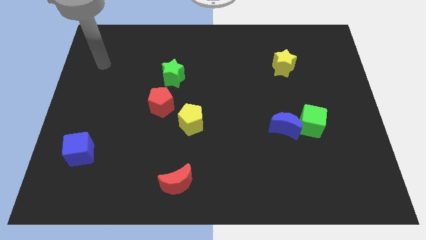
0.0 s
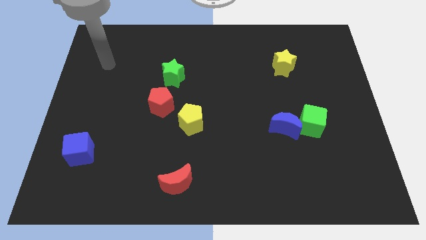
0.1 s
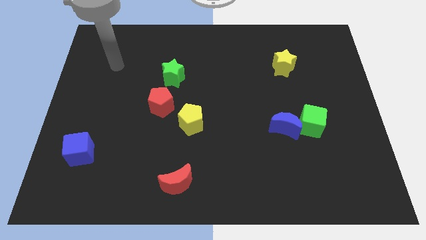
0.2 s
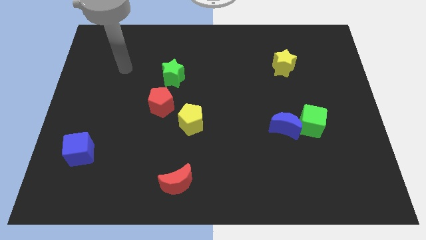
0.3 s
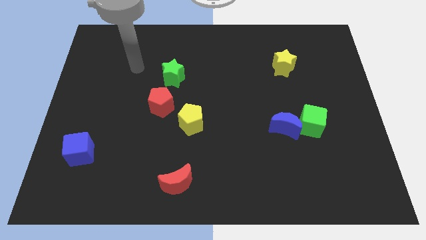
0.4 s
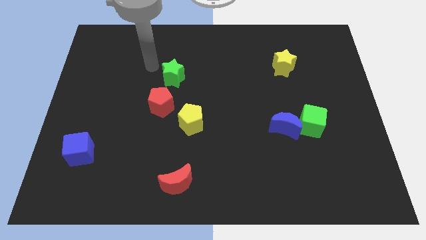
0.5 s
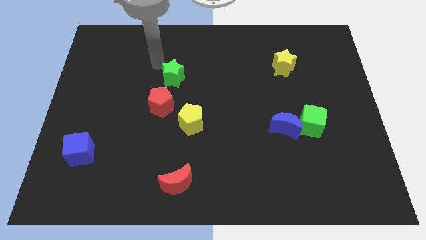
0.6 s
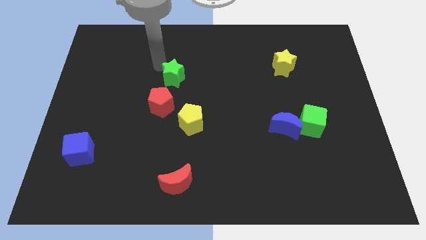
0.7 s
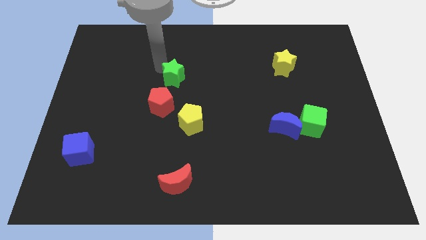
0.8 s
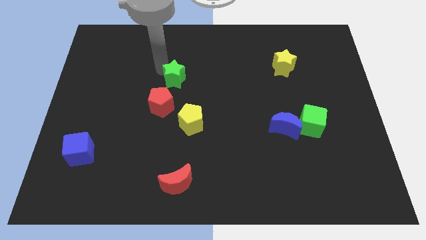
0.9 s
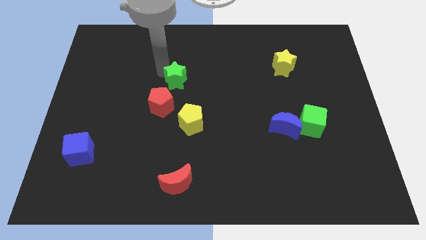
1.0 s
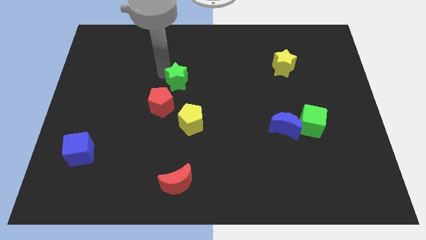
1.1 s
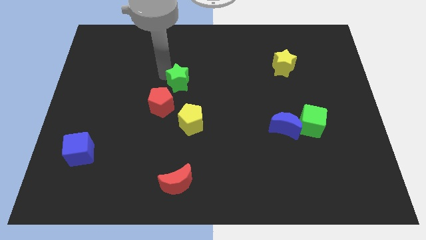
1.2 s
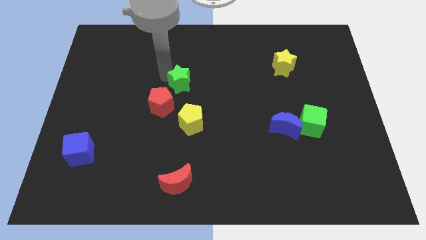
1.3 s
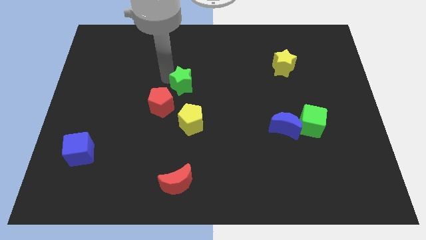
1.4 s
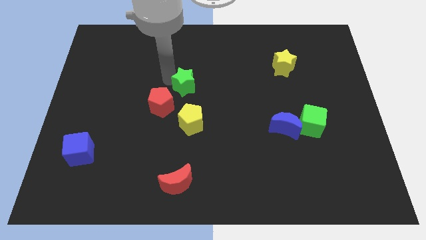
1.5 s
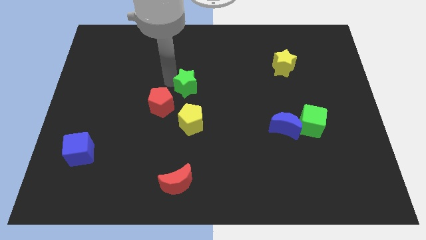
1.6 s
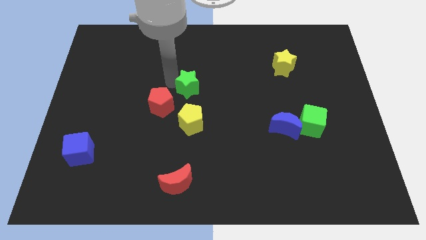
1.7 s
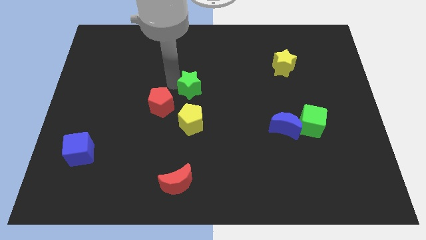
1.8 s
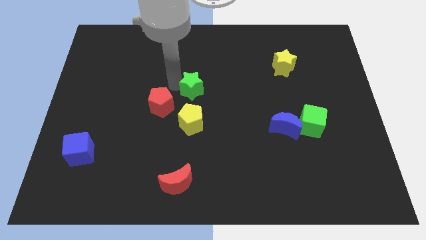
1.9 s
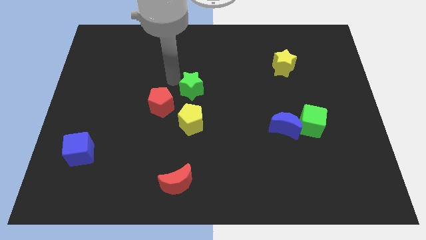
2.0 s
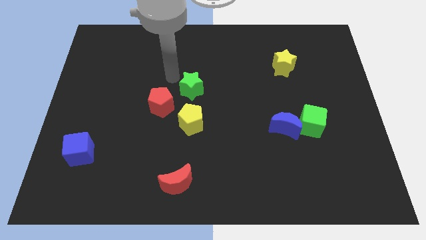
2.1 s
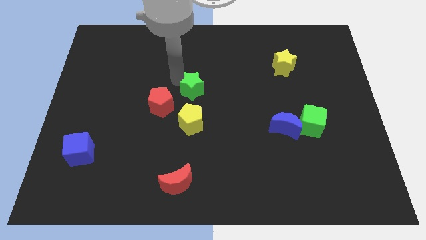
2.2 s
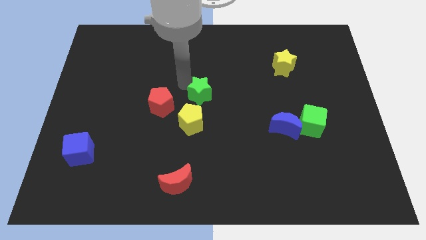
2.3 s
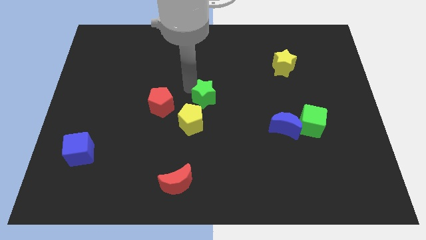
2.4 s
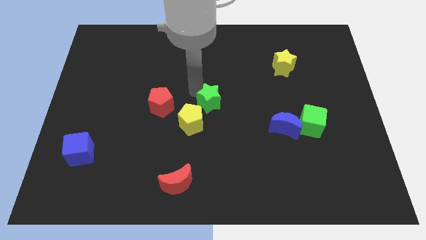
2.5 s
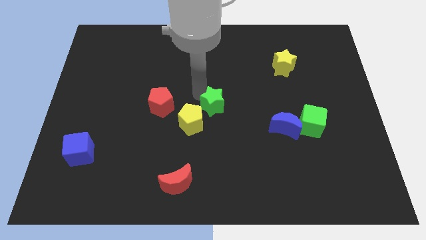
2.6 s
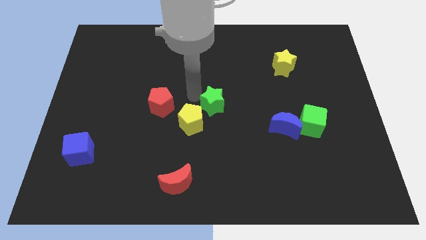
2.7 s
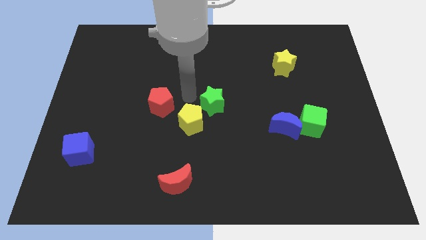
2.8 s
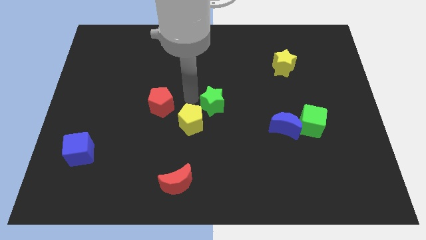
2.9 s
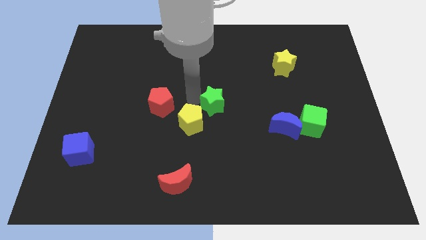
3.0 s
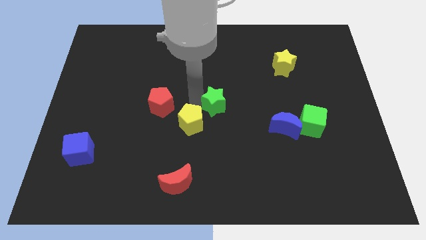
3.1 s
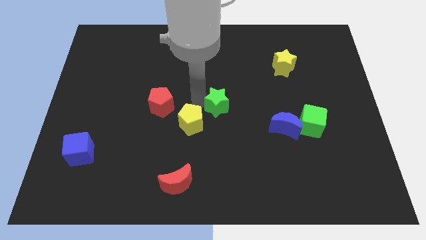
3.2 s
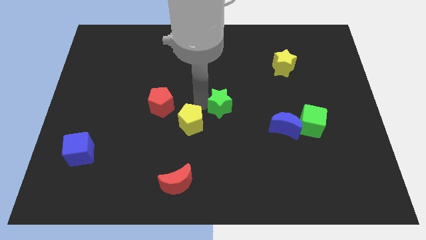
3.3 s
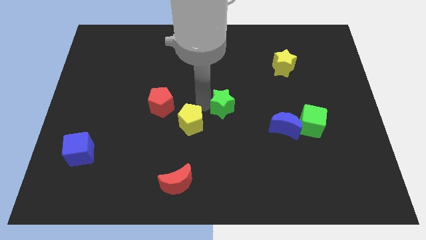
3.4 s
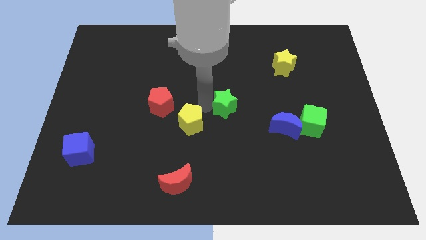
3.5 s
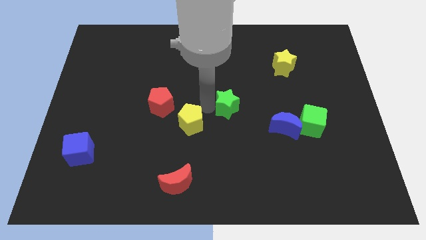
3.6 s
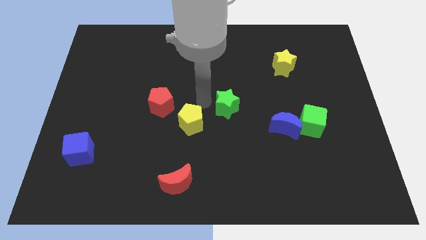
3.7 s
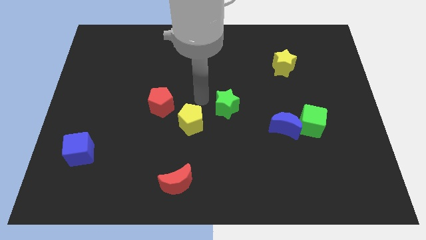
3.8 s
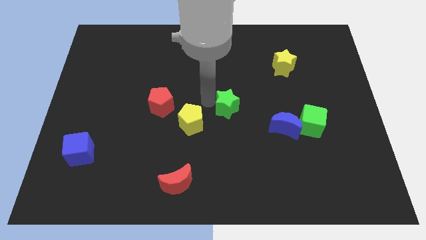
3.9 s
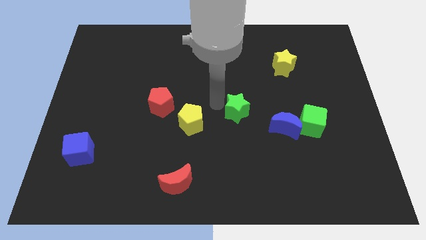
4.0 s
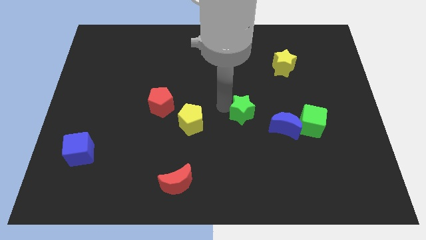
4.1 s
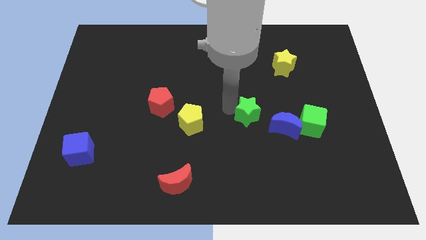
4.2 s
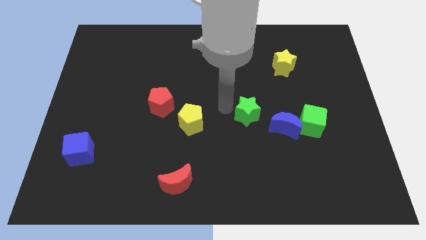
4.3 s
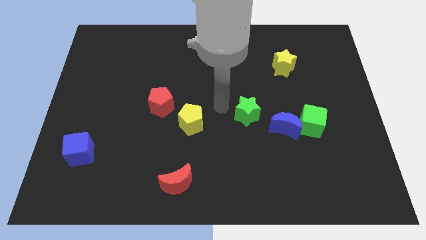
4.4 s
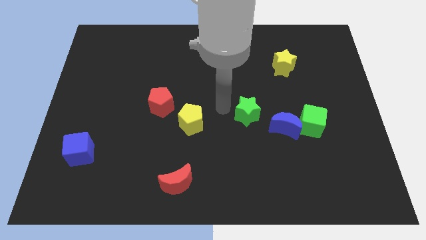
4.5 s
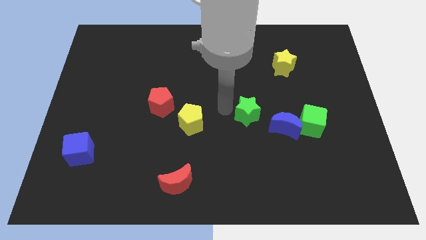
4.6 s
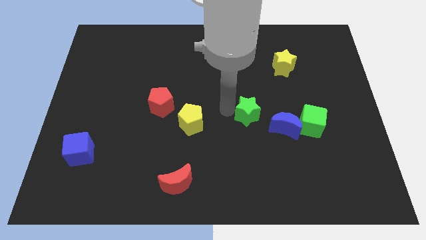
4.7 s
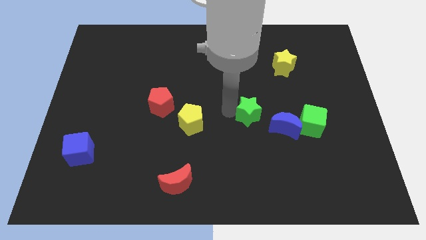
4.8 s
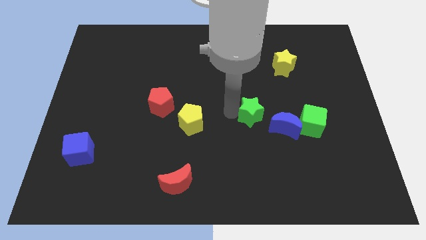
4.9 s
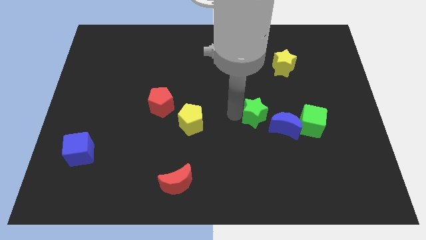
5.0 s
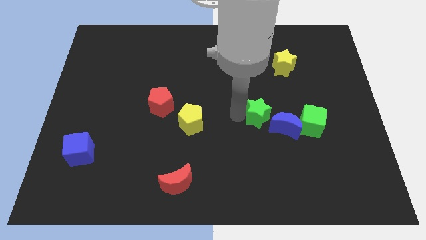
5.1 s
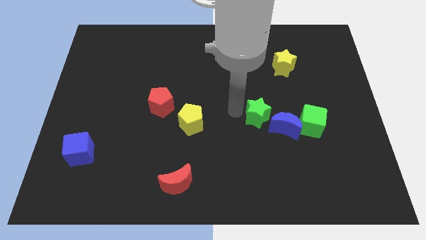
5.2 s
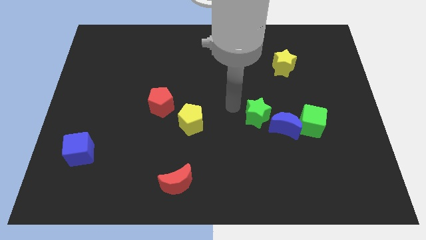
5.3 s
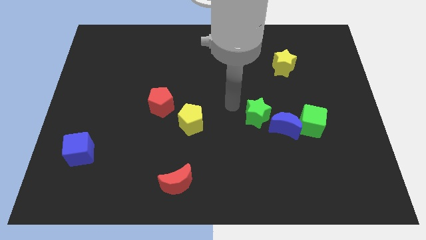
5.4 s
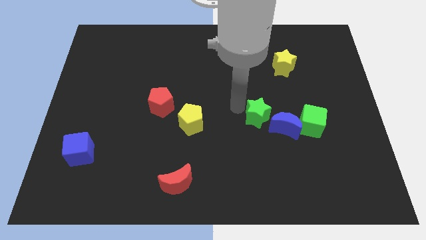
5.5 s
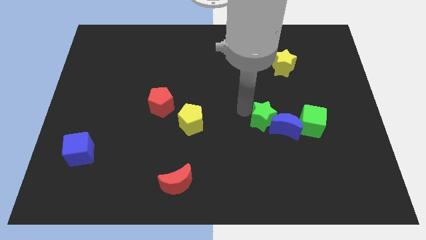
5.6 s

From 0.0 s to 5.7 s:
put the green star next to the blue moon

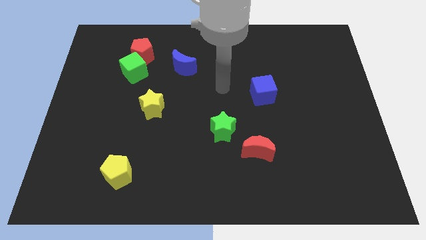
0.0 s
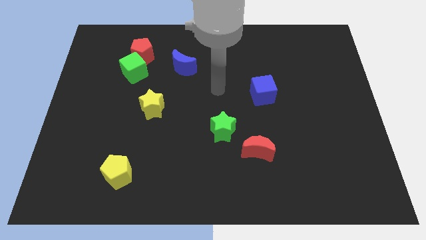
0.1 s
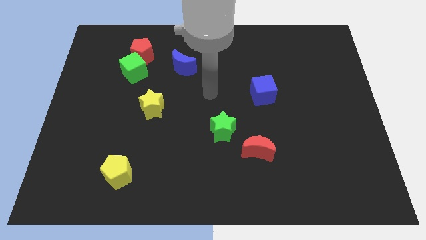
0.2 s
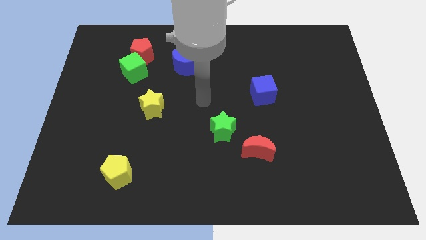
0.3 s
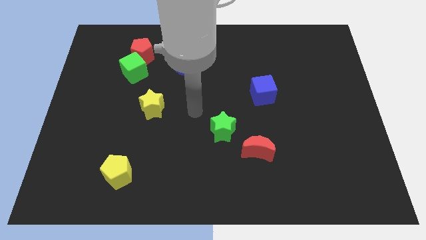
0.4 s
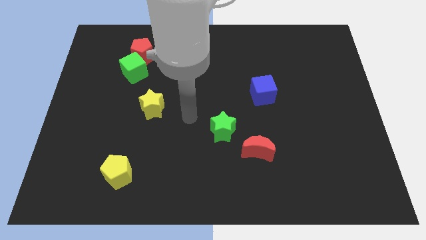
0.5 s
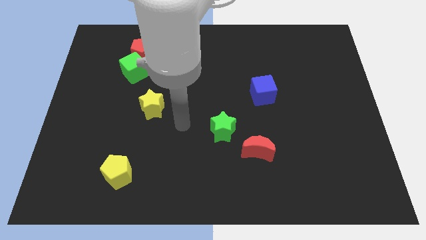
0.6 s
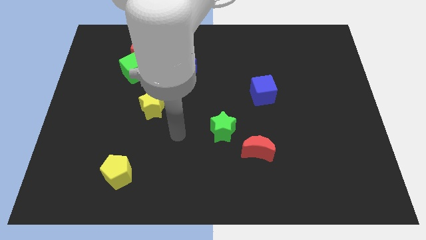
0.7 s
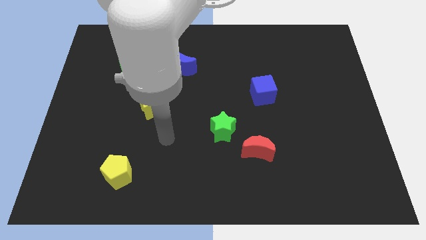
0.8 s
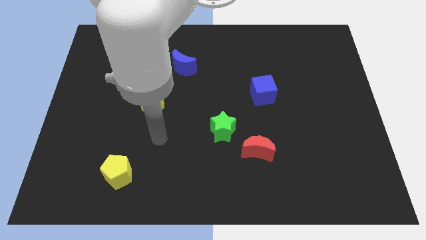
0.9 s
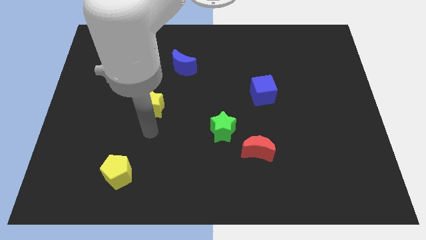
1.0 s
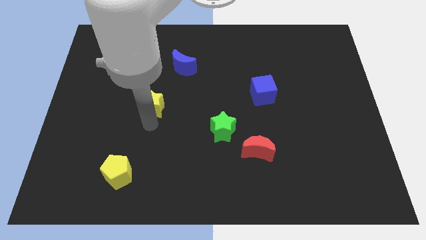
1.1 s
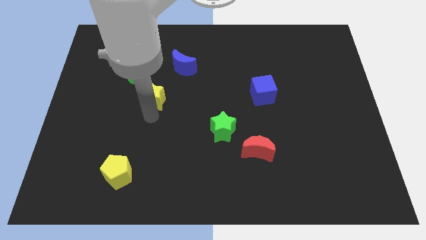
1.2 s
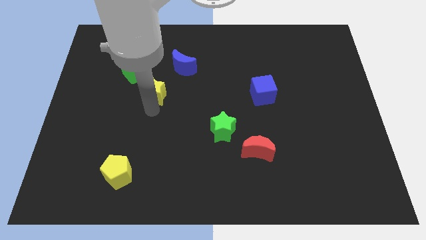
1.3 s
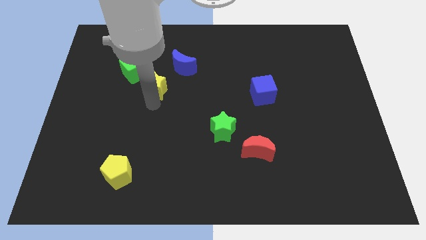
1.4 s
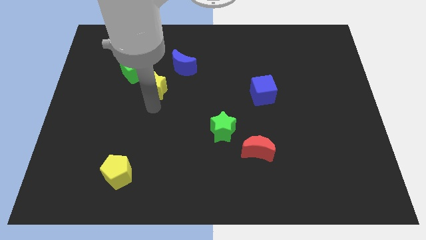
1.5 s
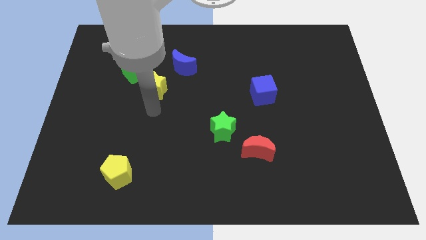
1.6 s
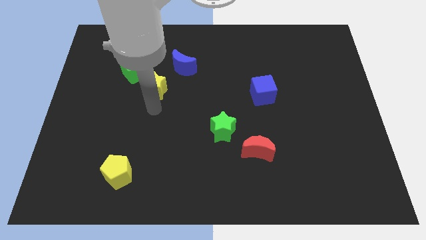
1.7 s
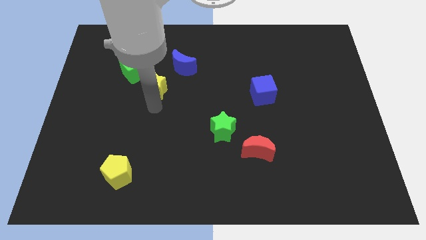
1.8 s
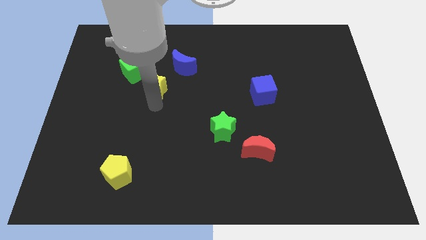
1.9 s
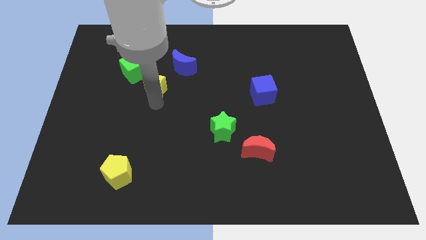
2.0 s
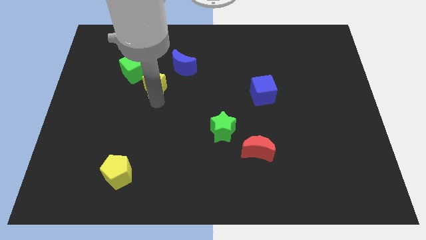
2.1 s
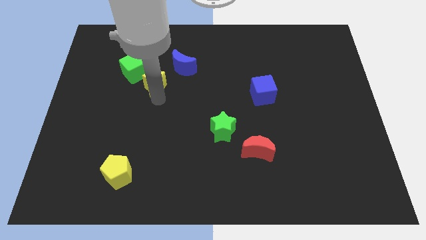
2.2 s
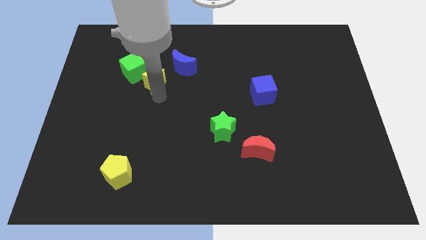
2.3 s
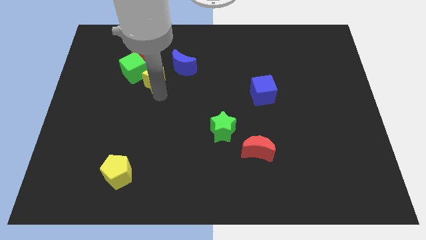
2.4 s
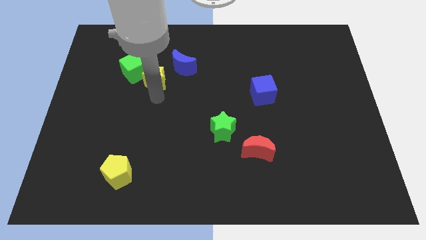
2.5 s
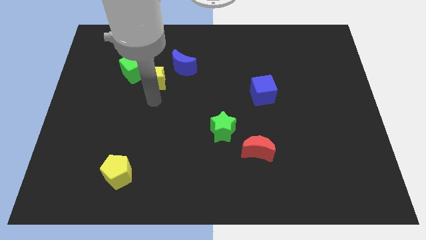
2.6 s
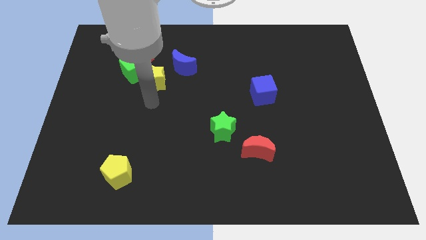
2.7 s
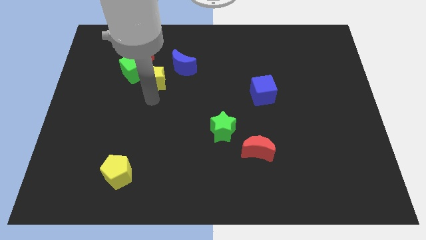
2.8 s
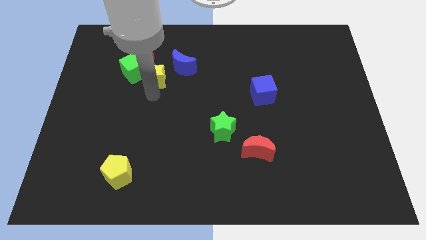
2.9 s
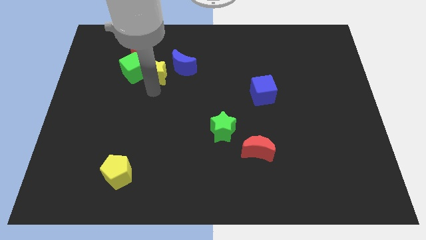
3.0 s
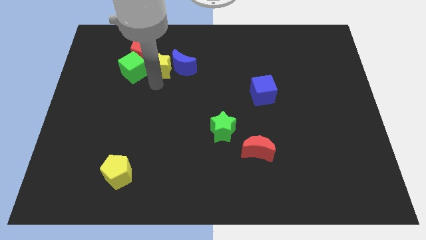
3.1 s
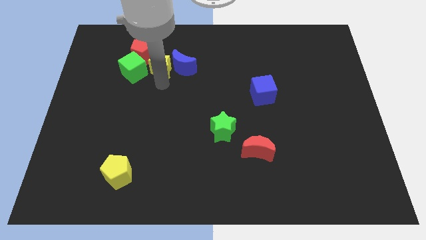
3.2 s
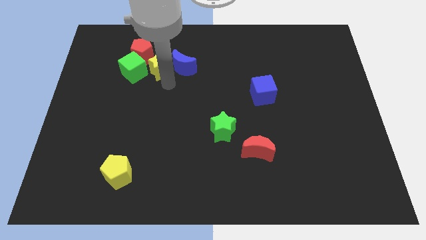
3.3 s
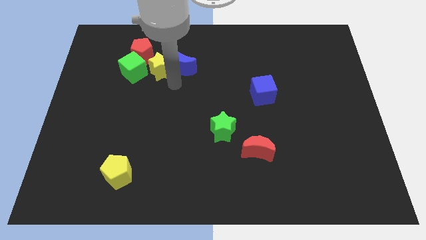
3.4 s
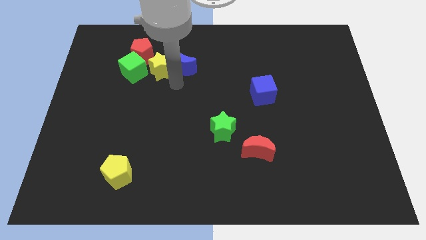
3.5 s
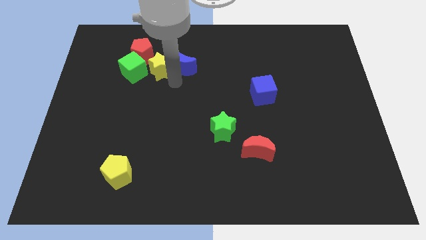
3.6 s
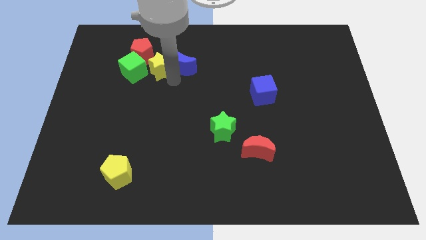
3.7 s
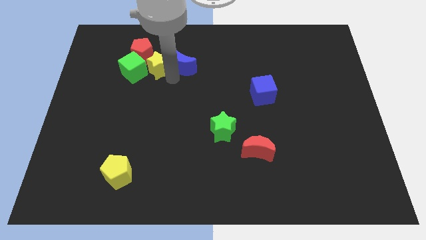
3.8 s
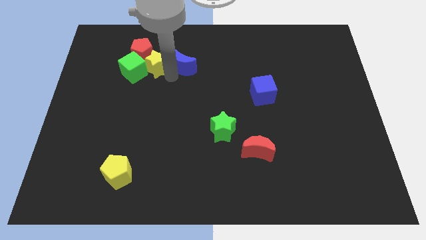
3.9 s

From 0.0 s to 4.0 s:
slide the yellow star towards the red pentagon
